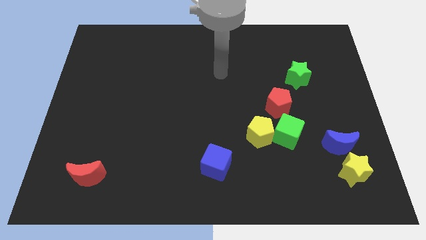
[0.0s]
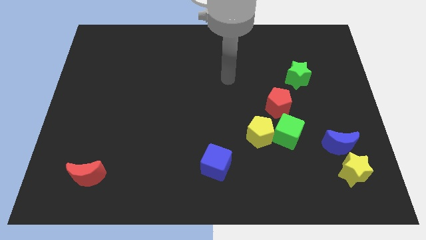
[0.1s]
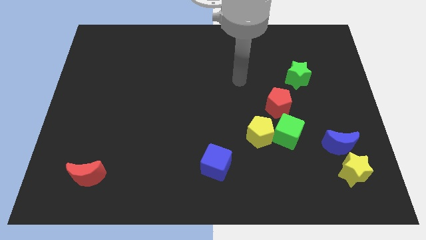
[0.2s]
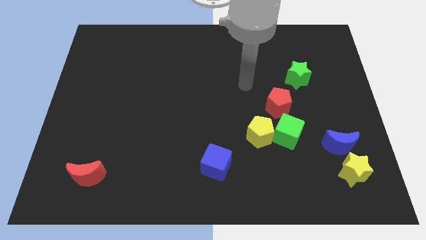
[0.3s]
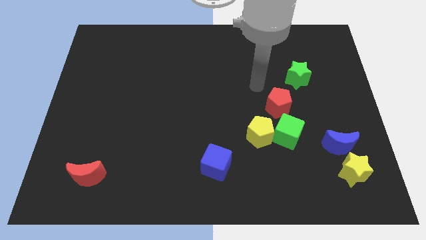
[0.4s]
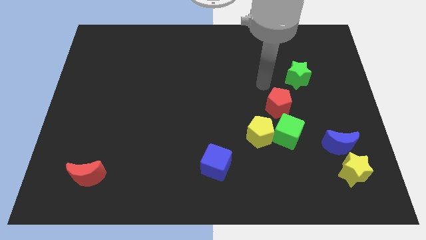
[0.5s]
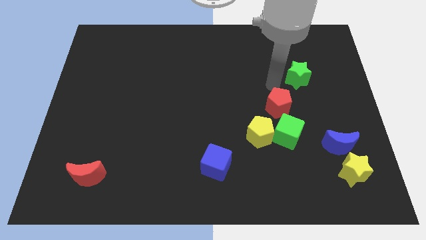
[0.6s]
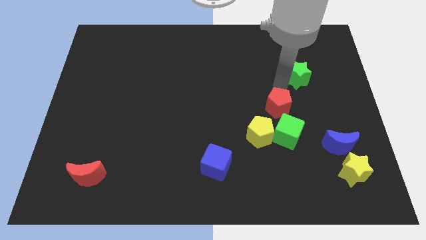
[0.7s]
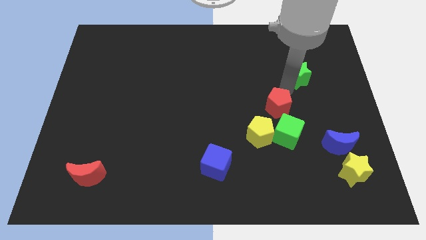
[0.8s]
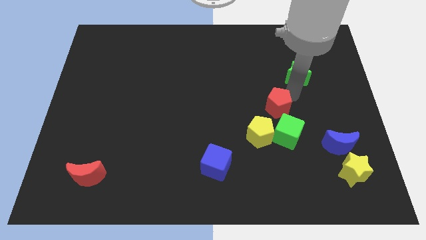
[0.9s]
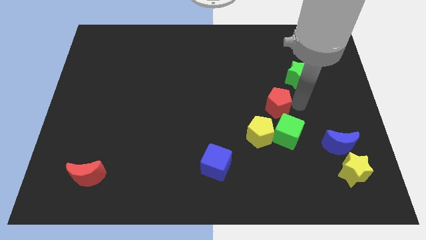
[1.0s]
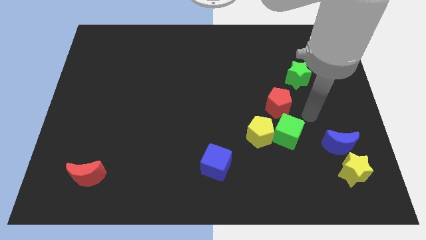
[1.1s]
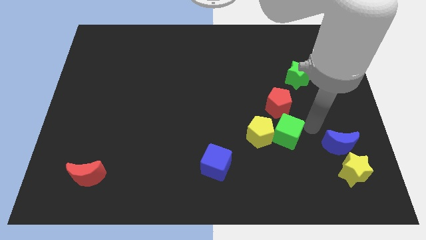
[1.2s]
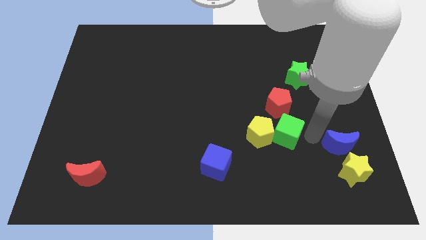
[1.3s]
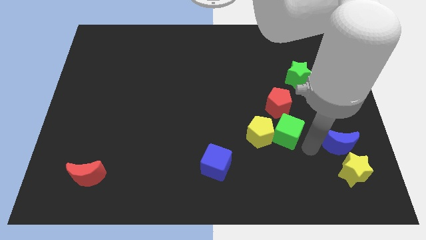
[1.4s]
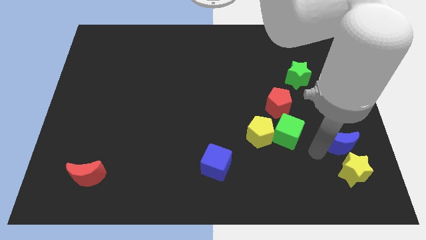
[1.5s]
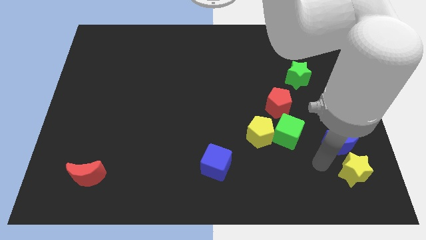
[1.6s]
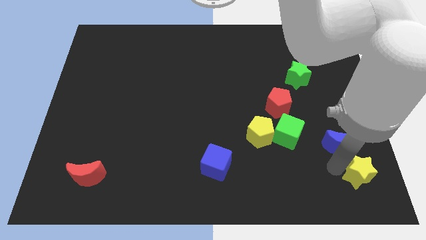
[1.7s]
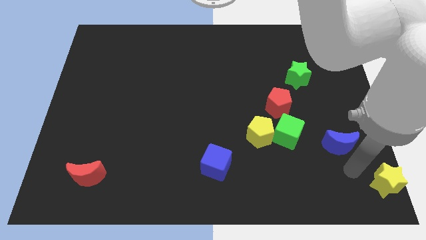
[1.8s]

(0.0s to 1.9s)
separate the blue moon from the yellow star

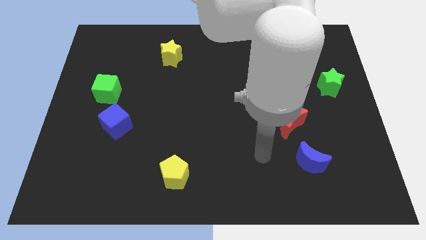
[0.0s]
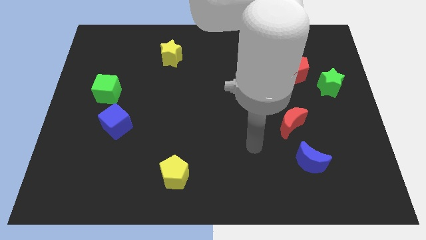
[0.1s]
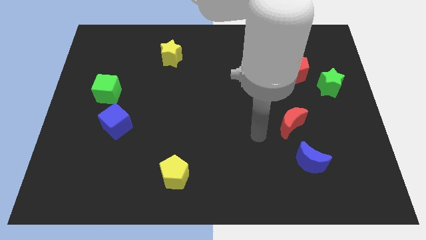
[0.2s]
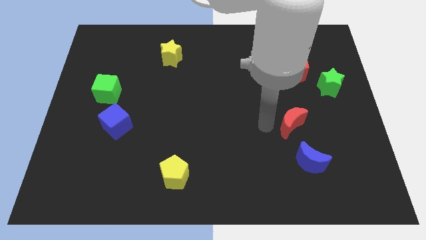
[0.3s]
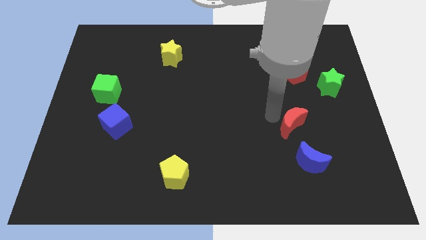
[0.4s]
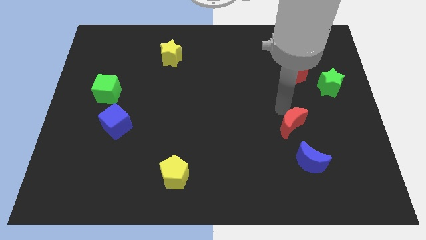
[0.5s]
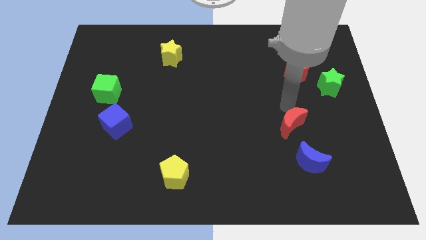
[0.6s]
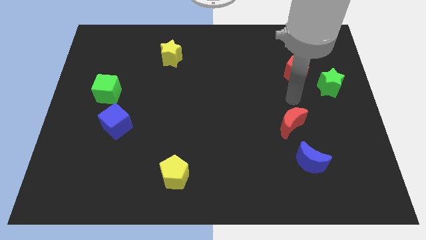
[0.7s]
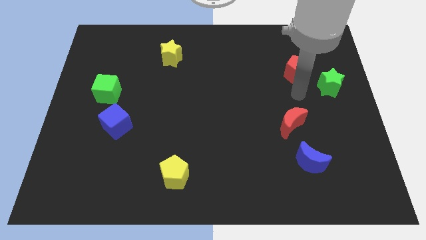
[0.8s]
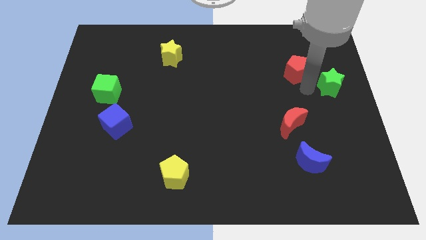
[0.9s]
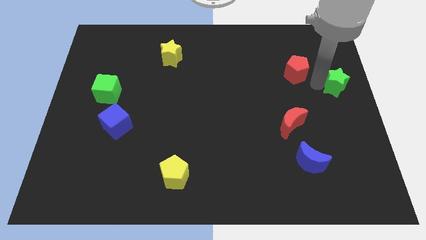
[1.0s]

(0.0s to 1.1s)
pull the red pentagon apart from the green star

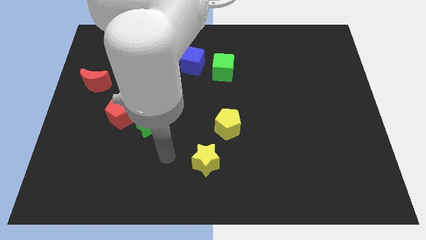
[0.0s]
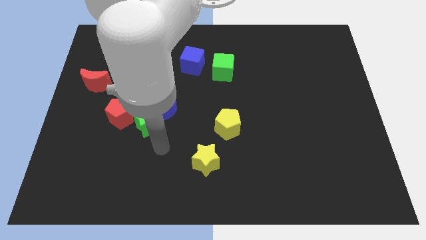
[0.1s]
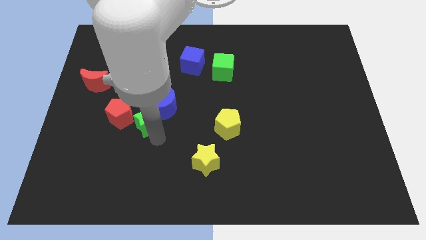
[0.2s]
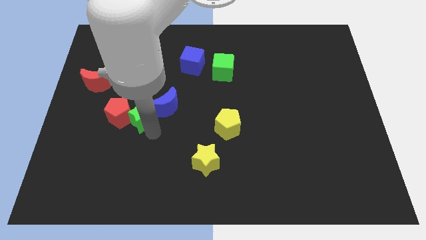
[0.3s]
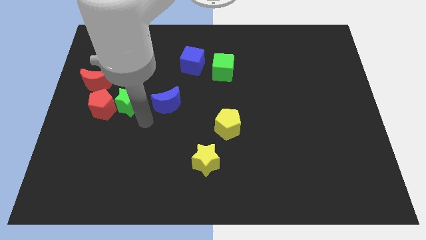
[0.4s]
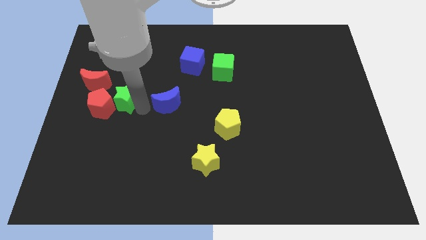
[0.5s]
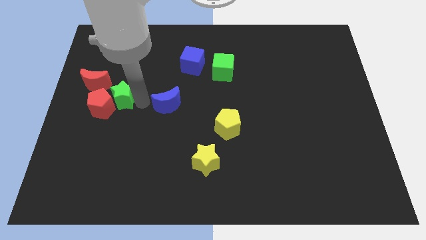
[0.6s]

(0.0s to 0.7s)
pull the blue moon apart from the green star

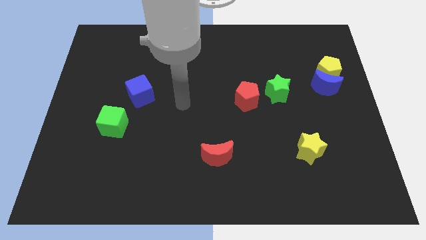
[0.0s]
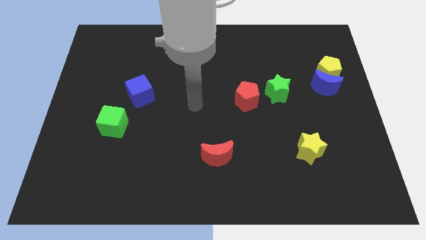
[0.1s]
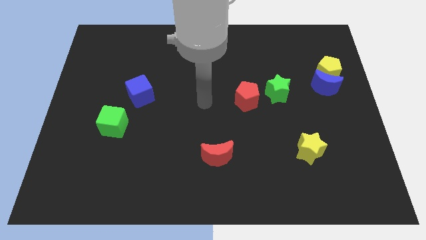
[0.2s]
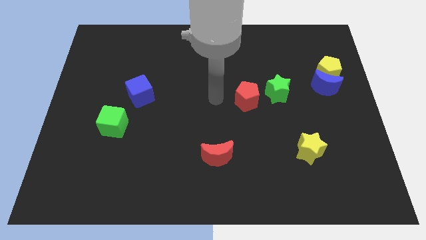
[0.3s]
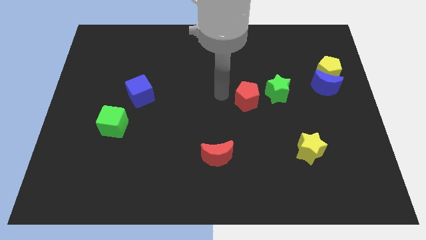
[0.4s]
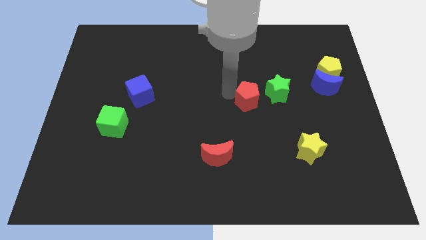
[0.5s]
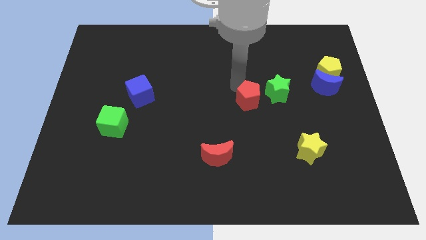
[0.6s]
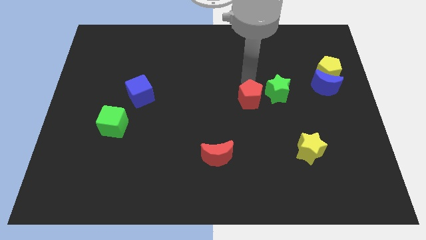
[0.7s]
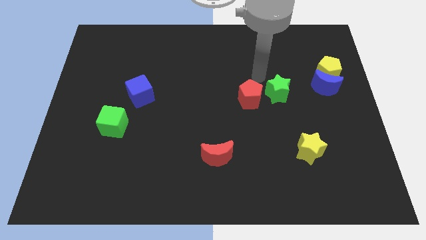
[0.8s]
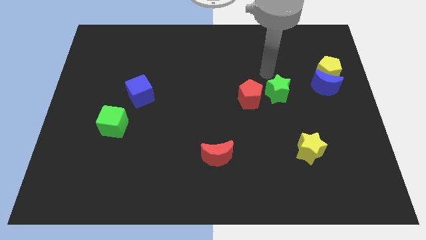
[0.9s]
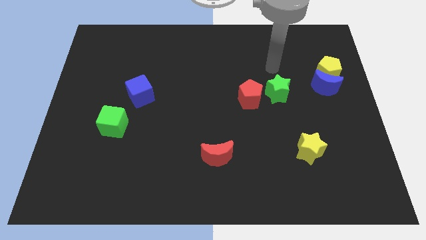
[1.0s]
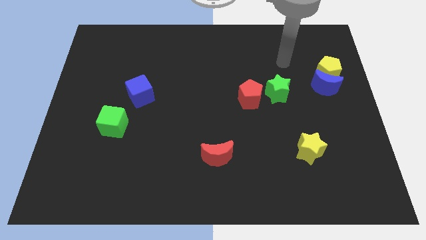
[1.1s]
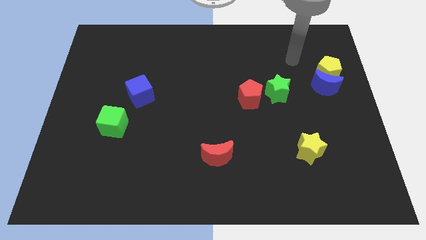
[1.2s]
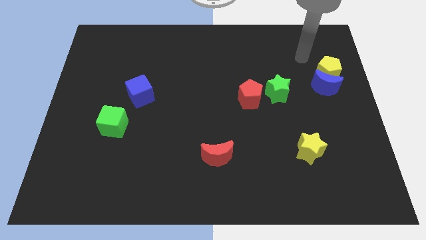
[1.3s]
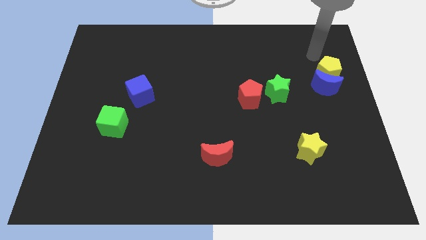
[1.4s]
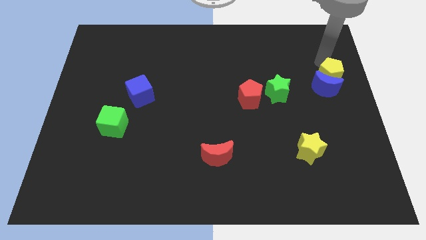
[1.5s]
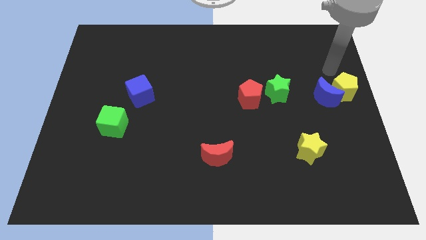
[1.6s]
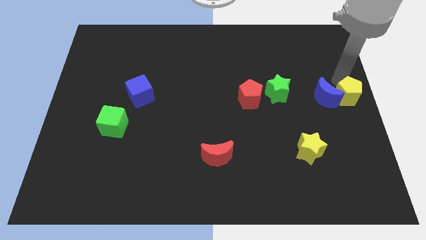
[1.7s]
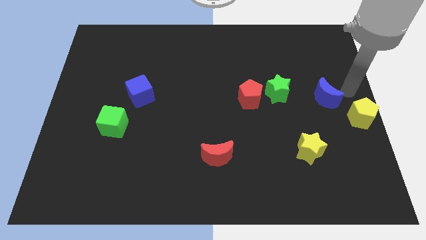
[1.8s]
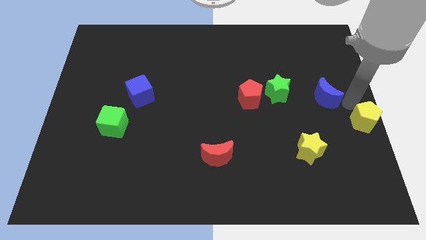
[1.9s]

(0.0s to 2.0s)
pull the blue moon apart from the yellow pentagon

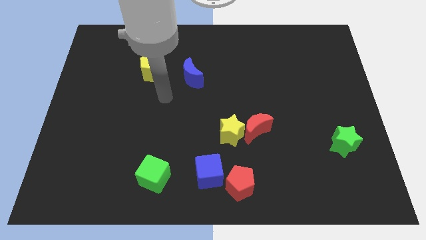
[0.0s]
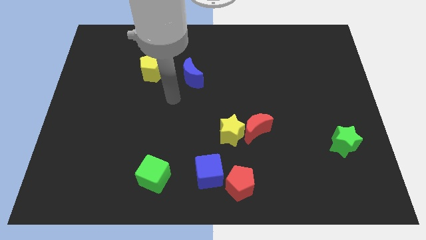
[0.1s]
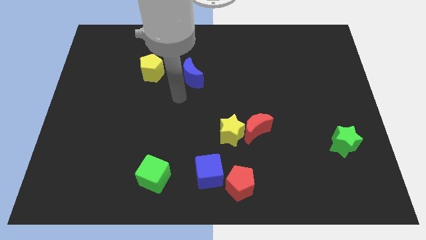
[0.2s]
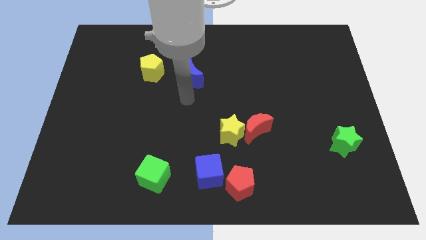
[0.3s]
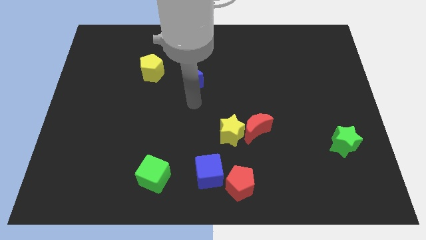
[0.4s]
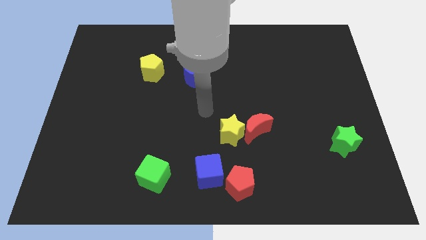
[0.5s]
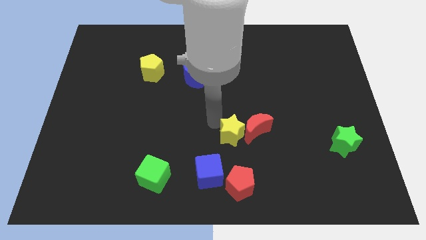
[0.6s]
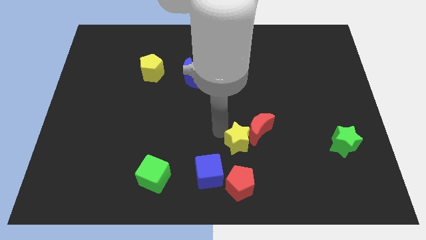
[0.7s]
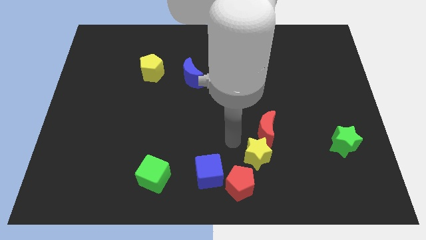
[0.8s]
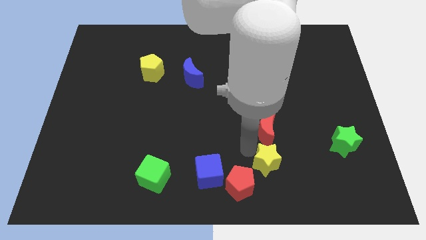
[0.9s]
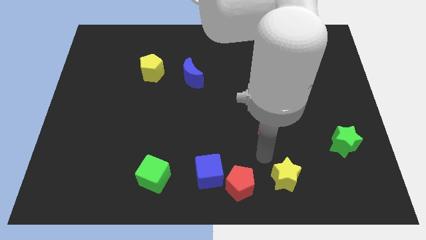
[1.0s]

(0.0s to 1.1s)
pull the red moon apart from the yellow star

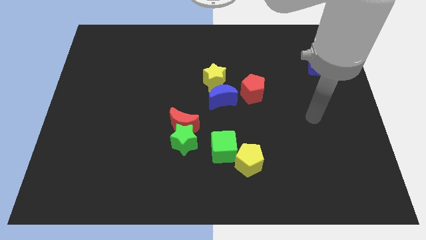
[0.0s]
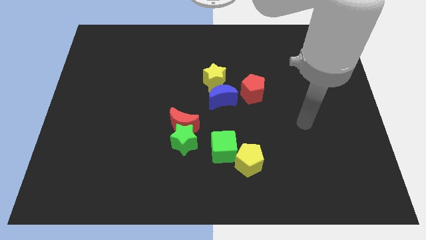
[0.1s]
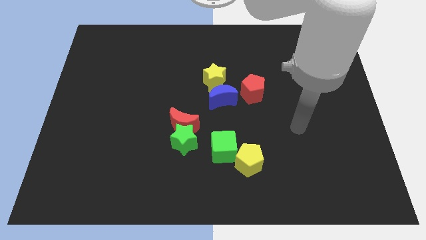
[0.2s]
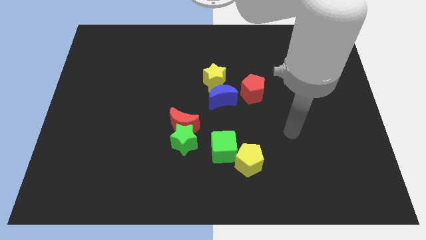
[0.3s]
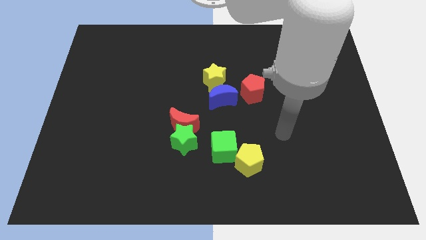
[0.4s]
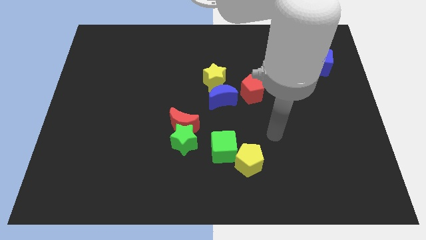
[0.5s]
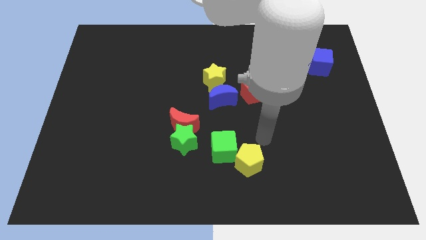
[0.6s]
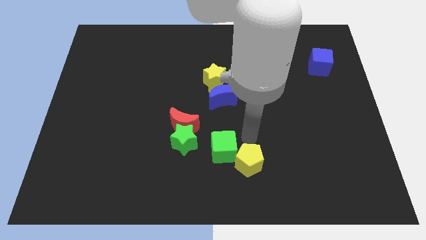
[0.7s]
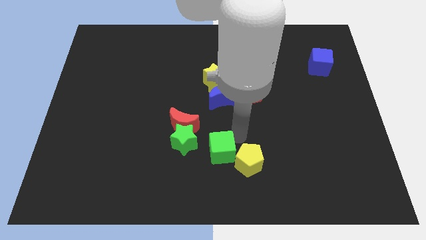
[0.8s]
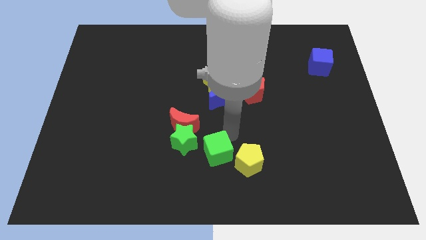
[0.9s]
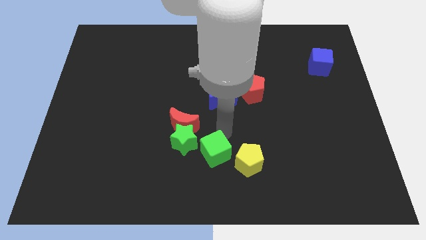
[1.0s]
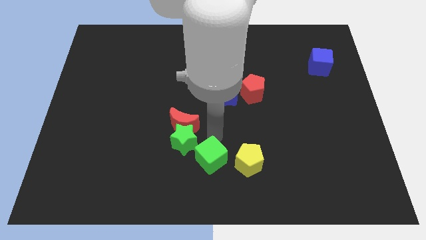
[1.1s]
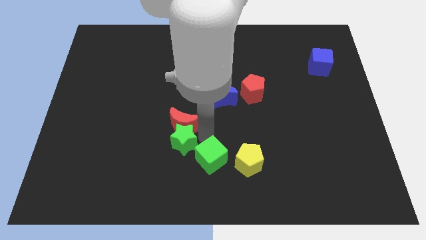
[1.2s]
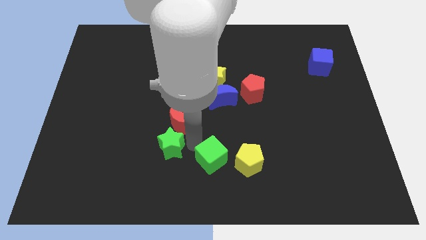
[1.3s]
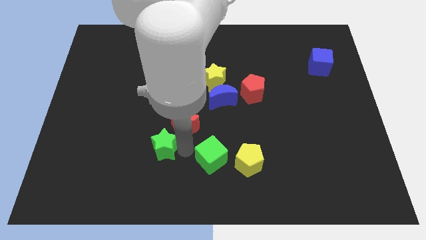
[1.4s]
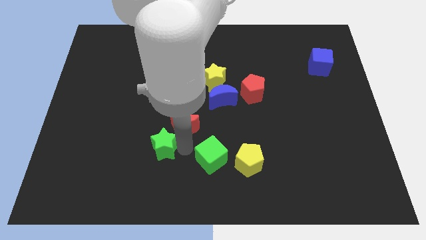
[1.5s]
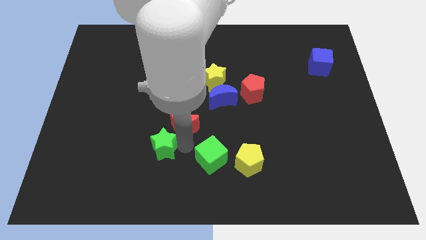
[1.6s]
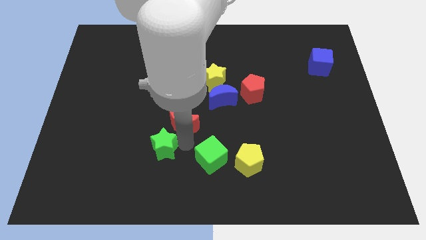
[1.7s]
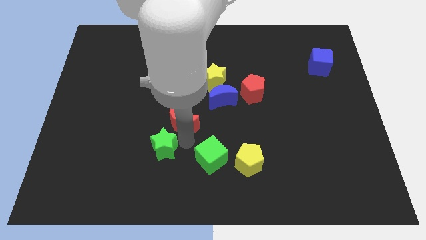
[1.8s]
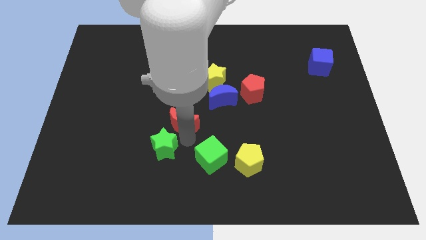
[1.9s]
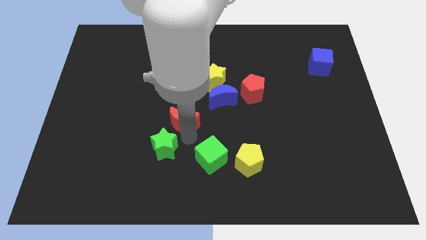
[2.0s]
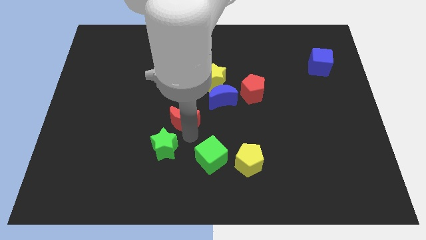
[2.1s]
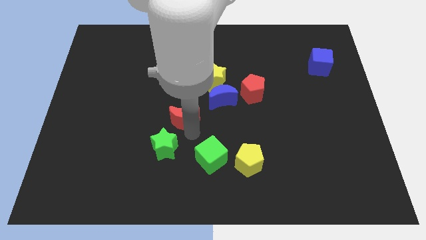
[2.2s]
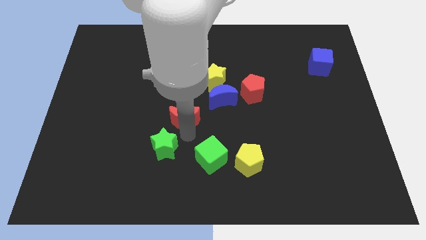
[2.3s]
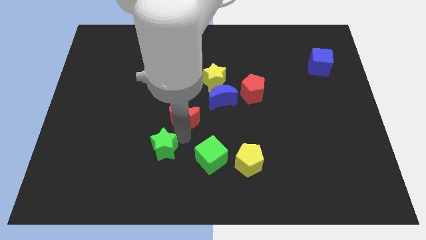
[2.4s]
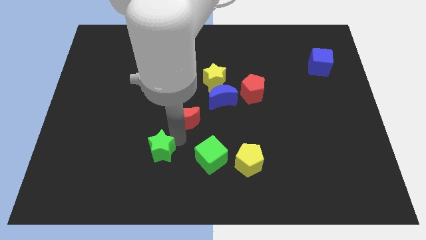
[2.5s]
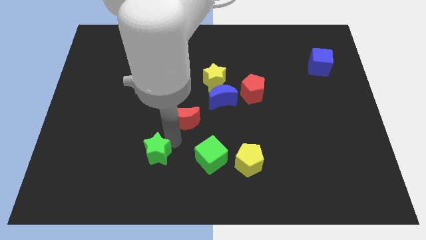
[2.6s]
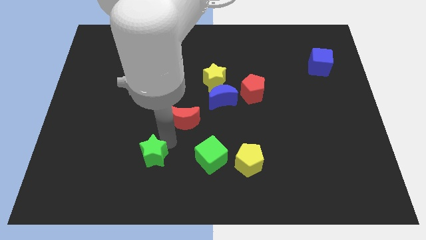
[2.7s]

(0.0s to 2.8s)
pull the red moon apart from the green star
